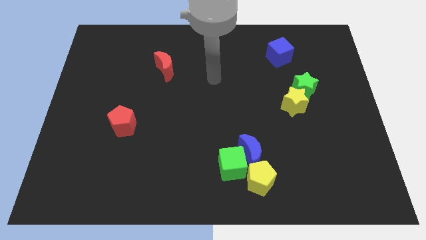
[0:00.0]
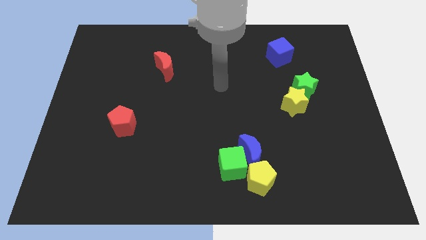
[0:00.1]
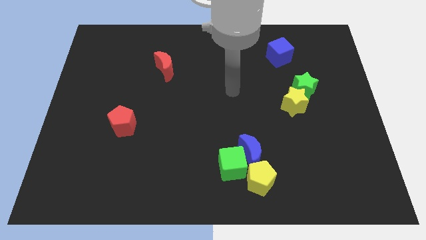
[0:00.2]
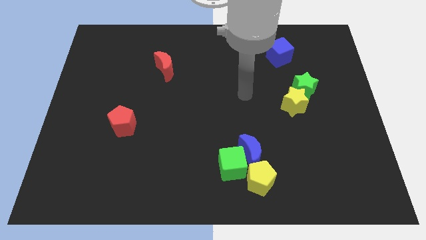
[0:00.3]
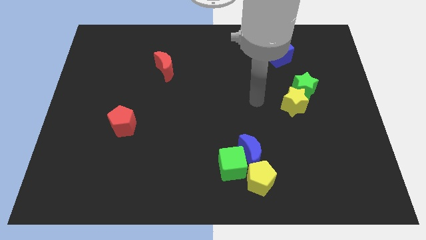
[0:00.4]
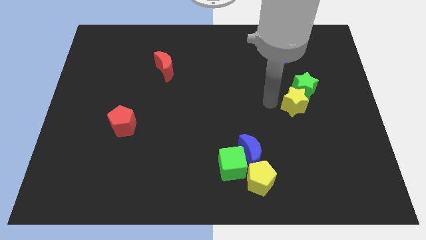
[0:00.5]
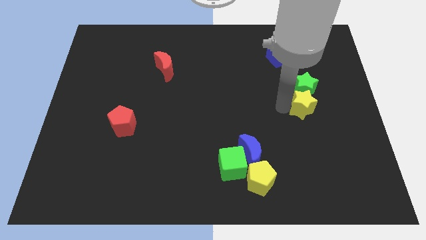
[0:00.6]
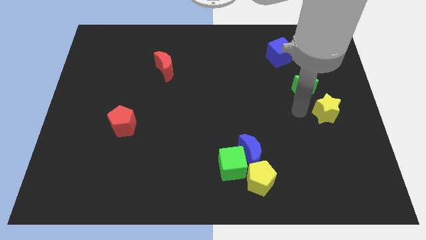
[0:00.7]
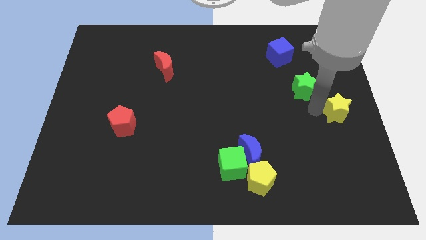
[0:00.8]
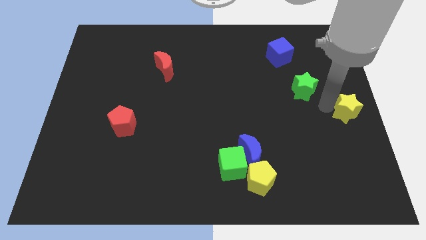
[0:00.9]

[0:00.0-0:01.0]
separate the green star from the yellow star

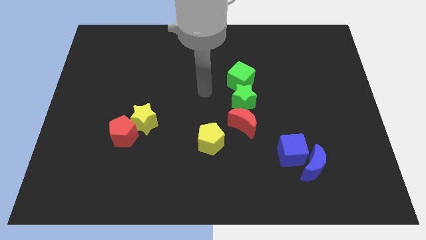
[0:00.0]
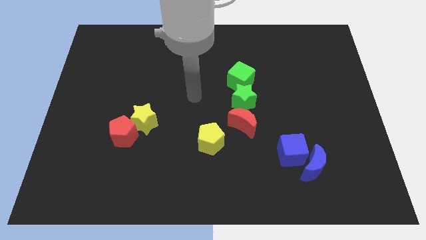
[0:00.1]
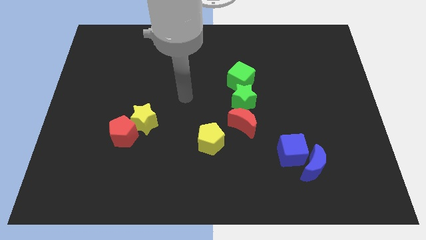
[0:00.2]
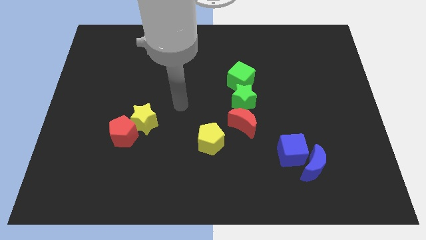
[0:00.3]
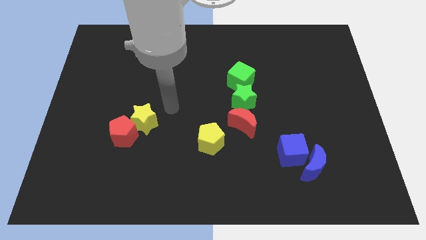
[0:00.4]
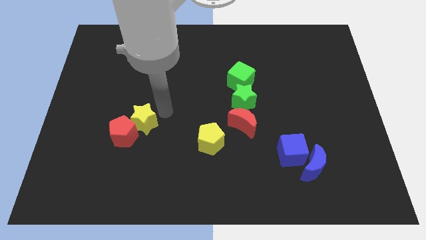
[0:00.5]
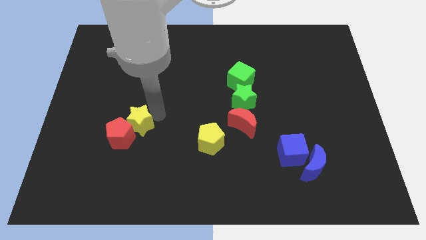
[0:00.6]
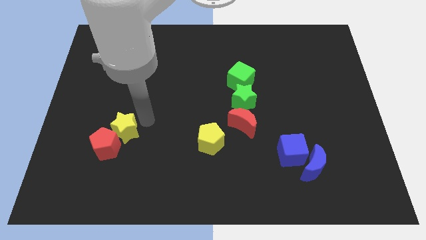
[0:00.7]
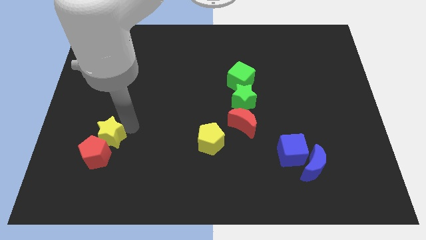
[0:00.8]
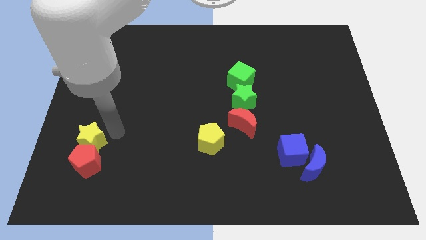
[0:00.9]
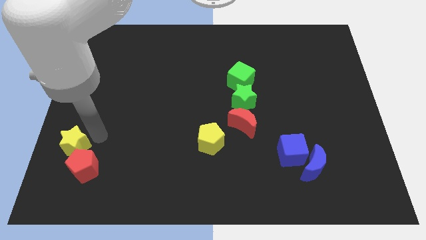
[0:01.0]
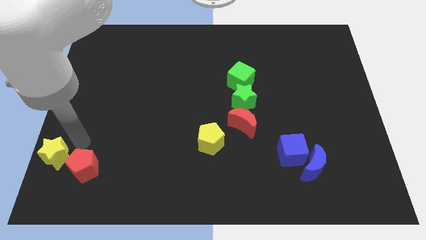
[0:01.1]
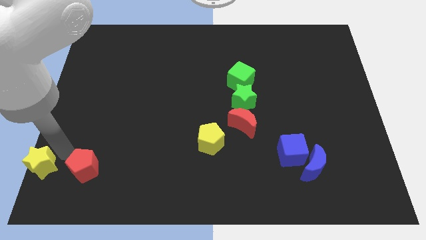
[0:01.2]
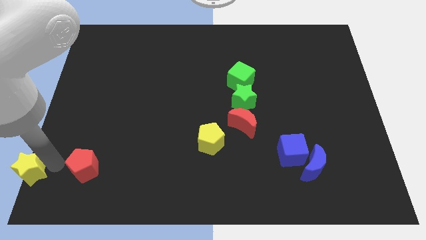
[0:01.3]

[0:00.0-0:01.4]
separate the red pentagon from the yellow star

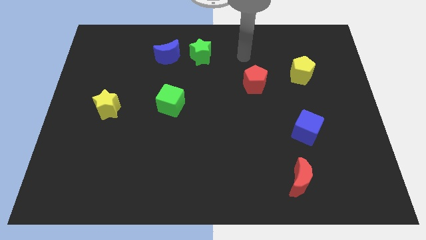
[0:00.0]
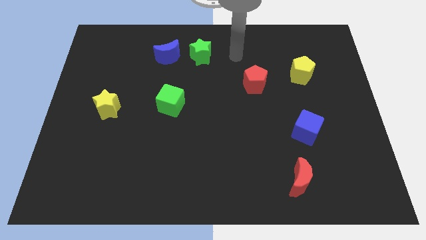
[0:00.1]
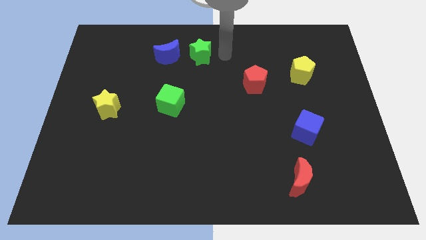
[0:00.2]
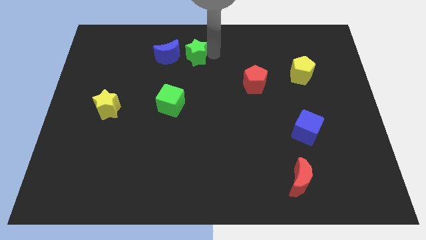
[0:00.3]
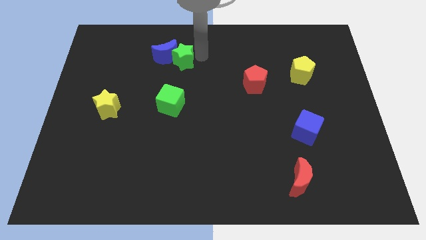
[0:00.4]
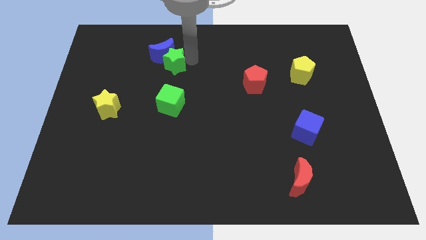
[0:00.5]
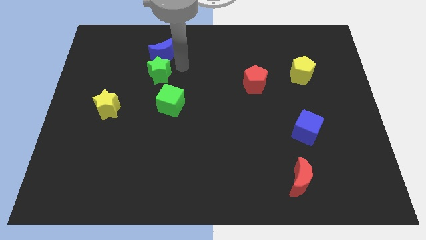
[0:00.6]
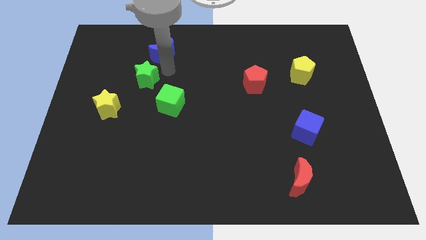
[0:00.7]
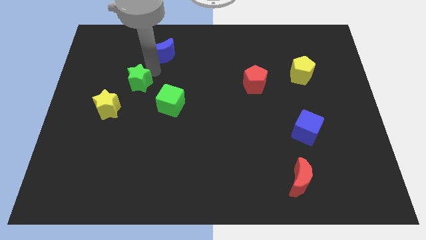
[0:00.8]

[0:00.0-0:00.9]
move the blue moon away from the green star

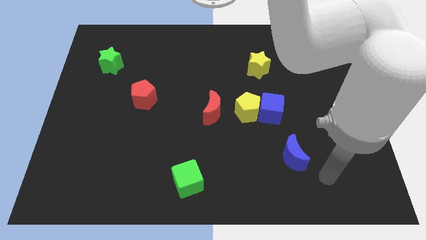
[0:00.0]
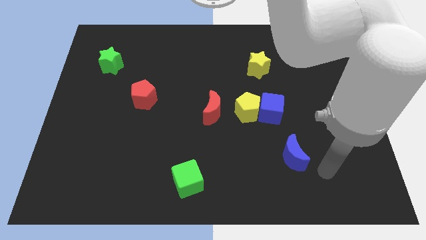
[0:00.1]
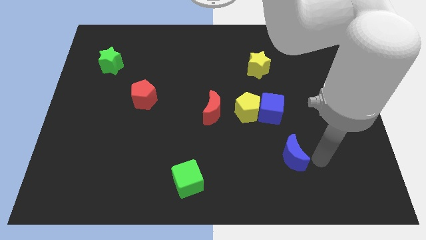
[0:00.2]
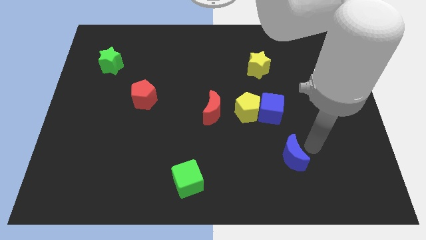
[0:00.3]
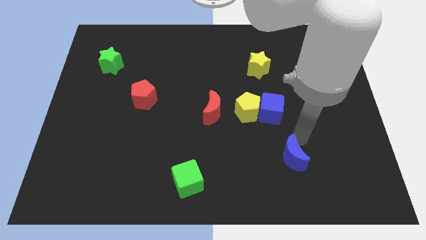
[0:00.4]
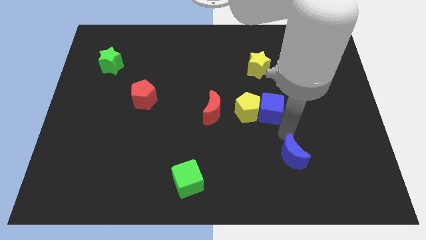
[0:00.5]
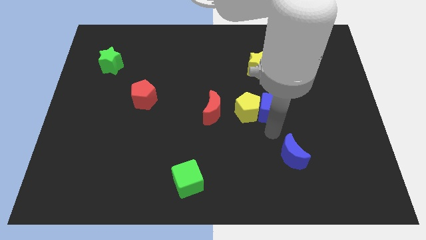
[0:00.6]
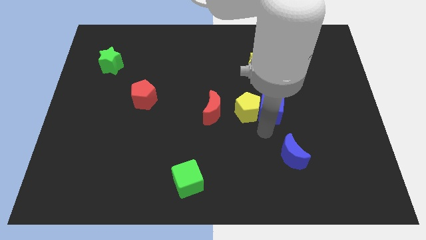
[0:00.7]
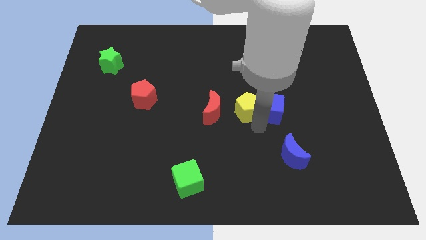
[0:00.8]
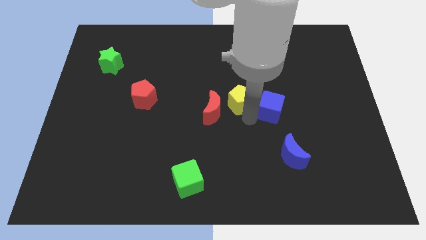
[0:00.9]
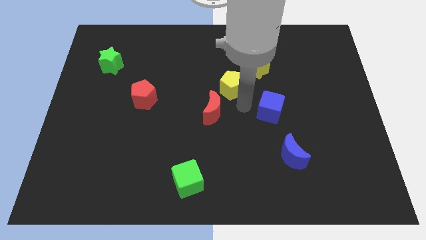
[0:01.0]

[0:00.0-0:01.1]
move the blue cube away from the yellow pentagon

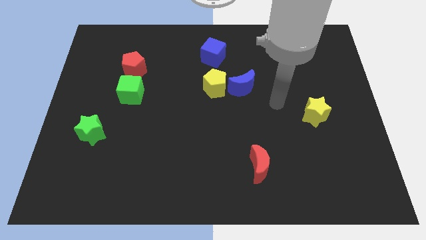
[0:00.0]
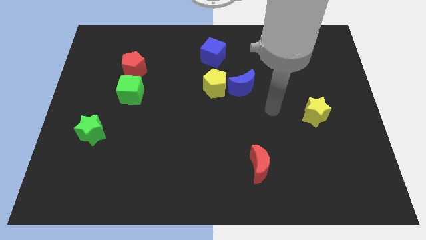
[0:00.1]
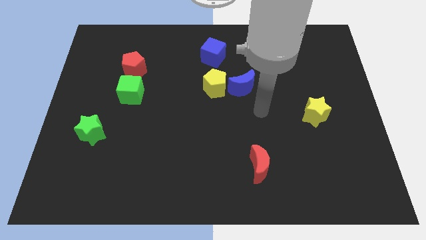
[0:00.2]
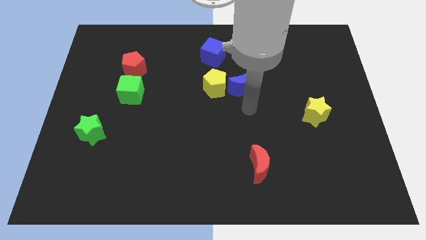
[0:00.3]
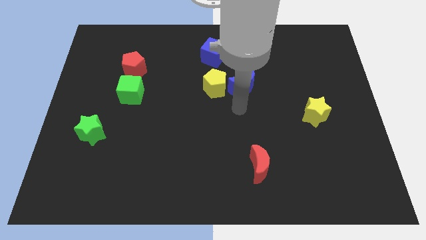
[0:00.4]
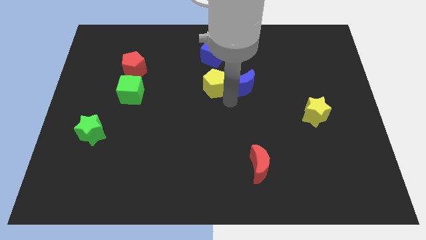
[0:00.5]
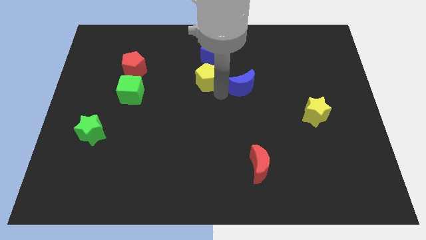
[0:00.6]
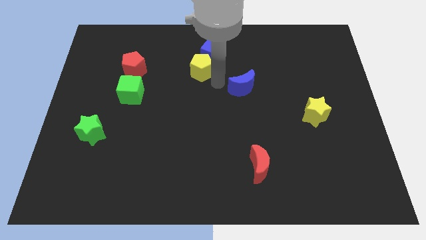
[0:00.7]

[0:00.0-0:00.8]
separate the blue moon from the yellow pentagon

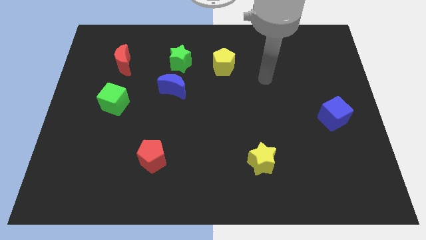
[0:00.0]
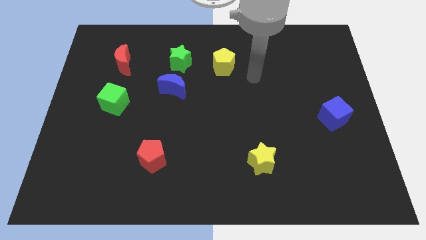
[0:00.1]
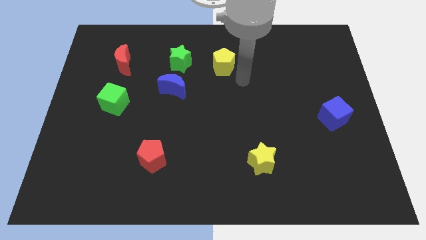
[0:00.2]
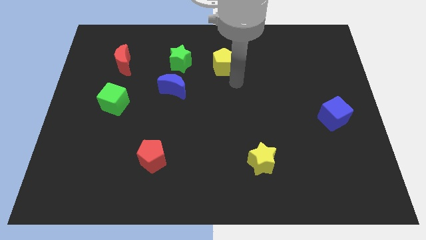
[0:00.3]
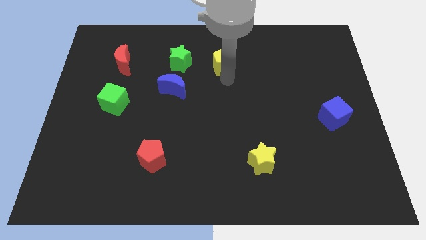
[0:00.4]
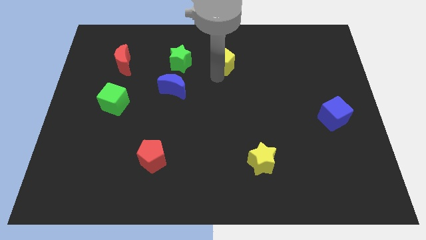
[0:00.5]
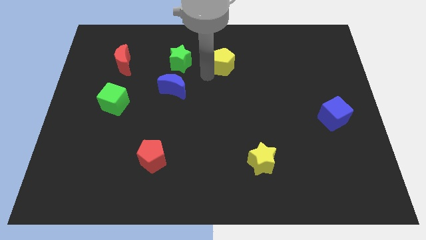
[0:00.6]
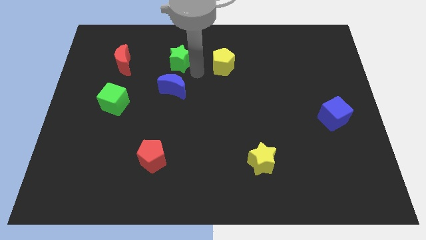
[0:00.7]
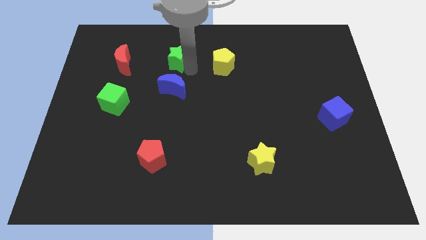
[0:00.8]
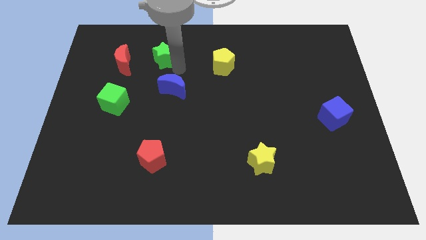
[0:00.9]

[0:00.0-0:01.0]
pull the blue moon apart from the green star

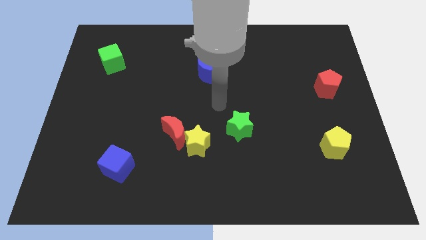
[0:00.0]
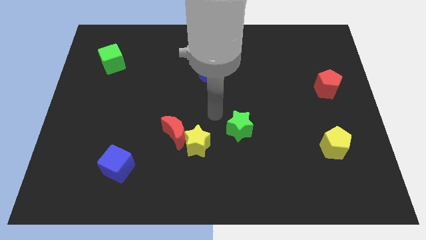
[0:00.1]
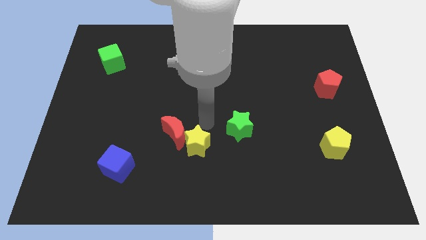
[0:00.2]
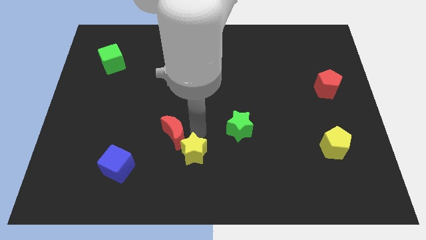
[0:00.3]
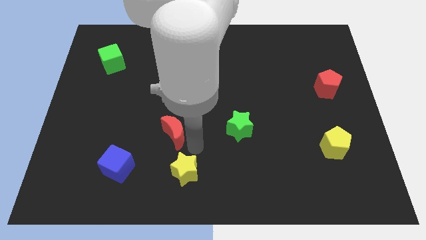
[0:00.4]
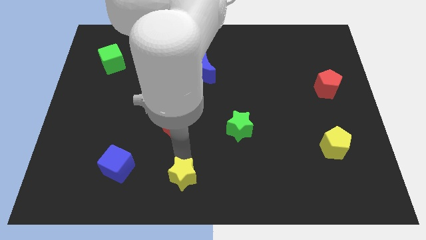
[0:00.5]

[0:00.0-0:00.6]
separate the red moon from the yellow star

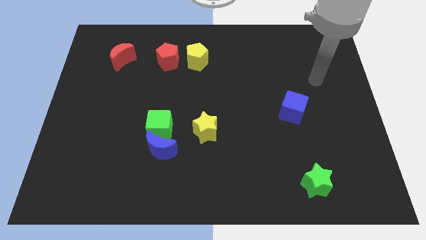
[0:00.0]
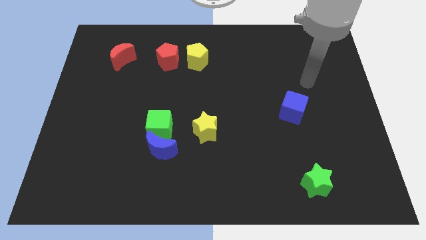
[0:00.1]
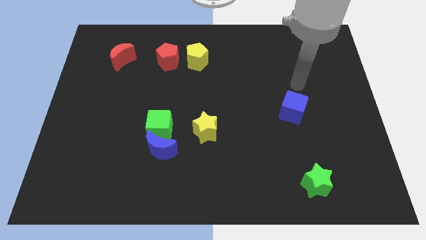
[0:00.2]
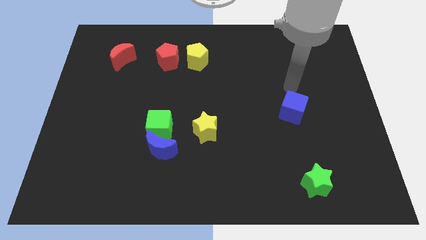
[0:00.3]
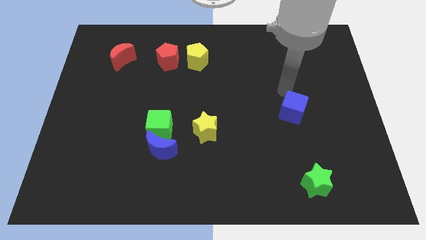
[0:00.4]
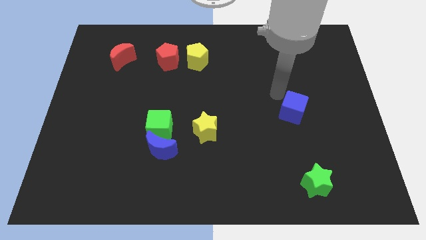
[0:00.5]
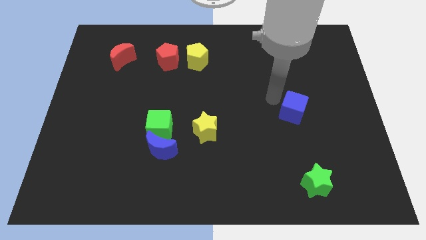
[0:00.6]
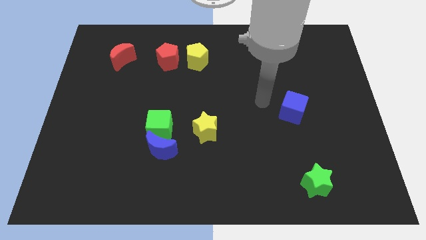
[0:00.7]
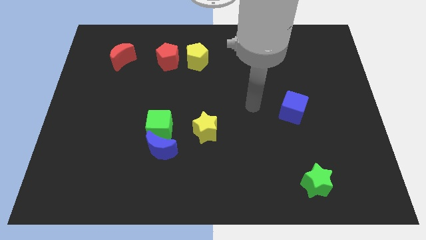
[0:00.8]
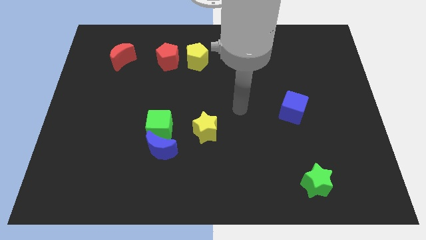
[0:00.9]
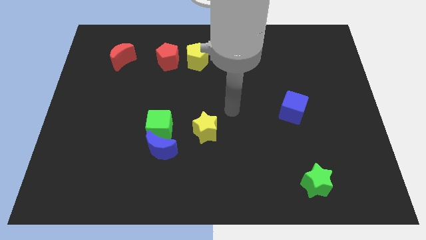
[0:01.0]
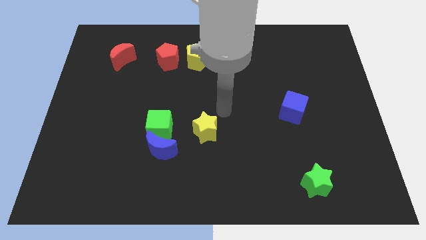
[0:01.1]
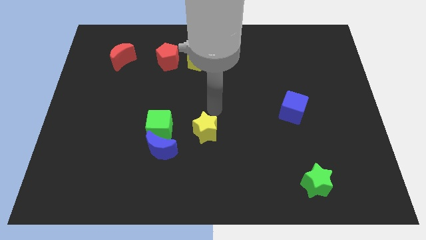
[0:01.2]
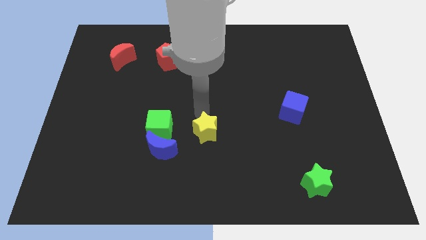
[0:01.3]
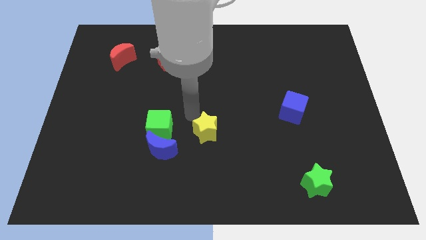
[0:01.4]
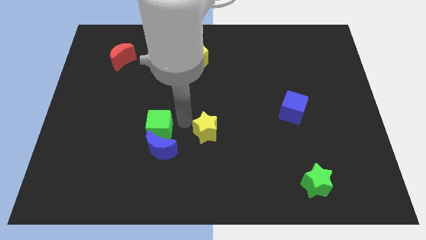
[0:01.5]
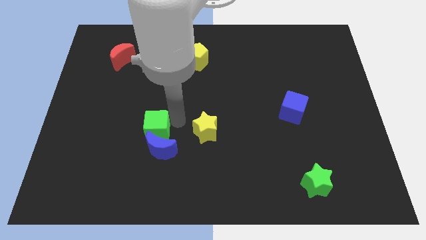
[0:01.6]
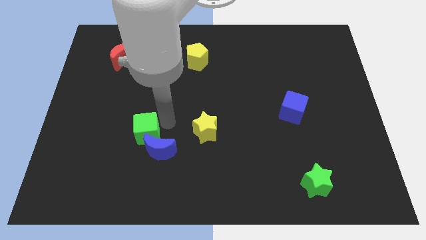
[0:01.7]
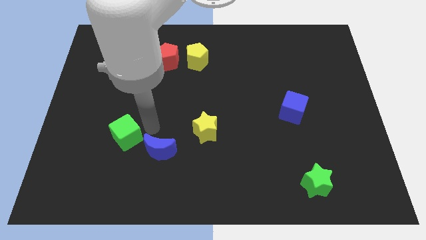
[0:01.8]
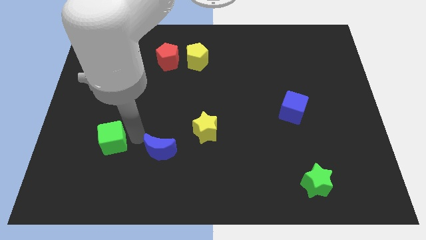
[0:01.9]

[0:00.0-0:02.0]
pull the blue moon apart from the green cube
